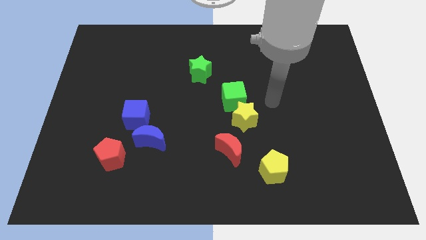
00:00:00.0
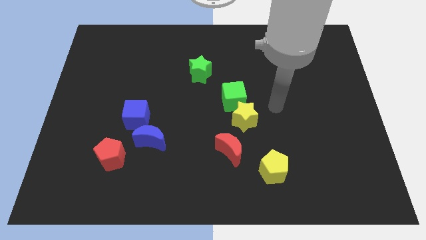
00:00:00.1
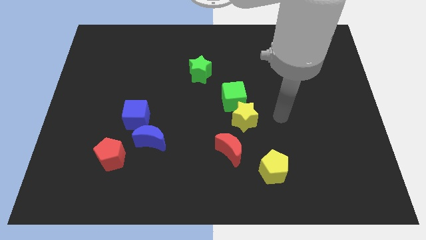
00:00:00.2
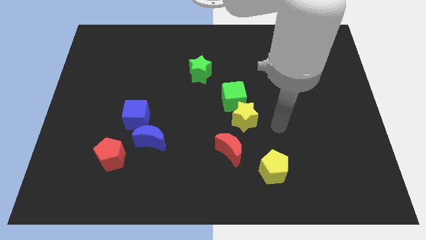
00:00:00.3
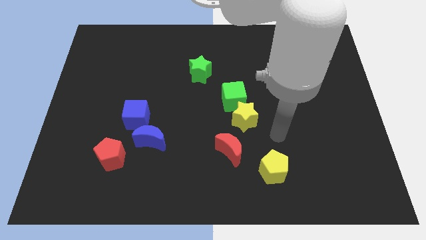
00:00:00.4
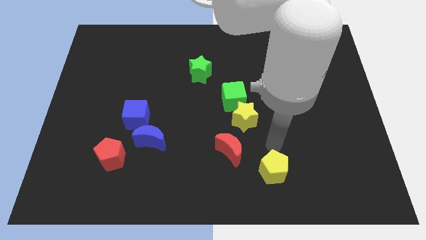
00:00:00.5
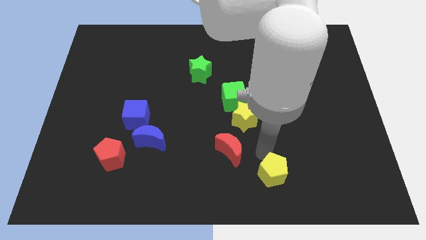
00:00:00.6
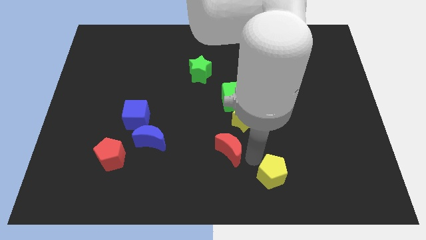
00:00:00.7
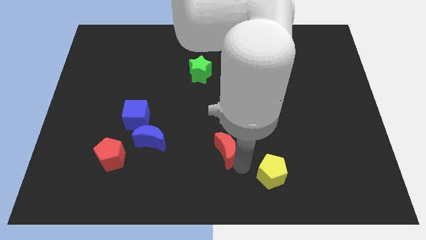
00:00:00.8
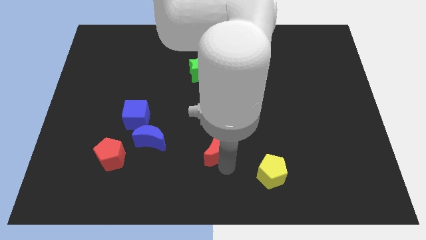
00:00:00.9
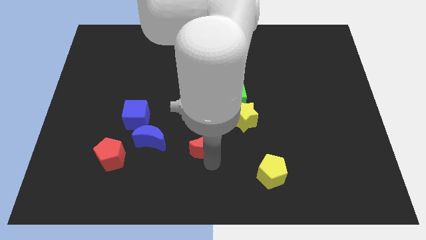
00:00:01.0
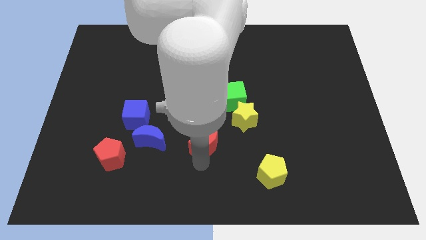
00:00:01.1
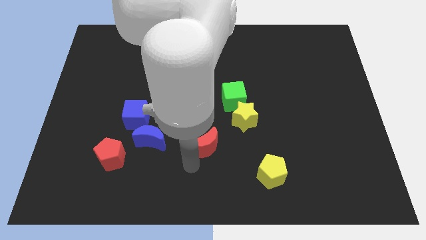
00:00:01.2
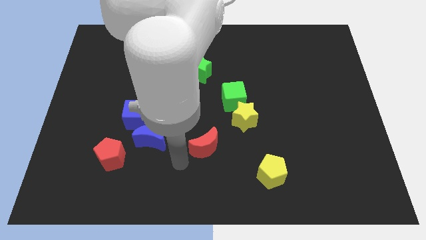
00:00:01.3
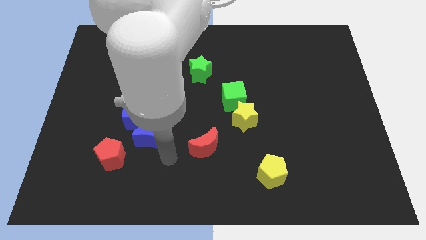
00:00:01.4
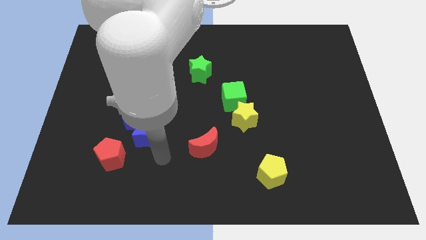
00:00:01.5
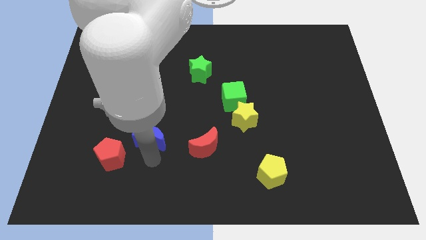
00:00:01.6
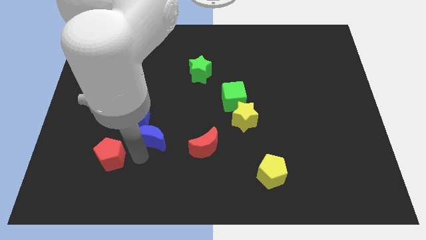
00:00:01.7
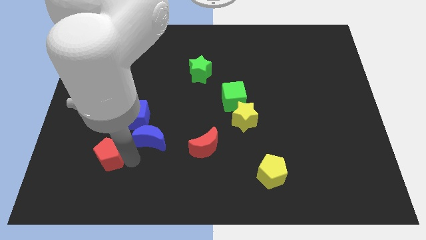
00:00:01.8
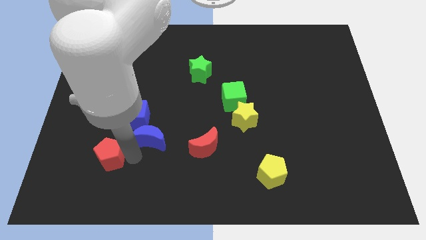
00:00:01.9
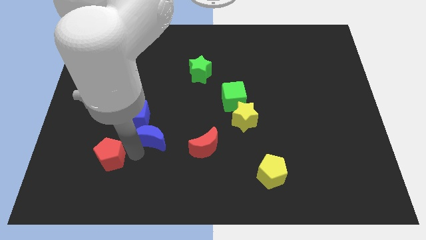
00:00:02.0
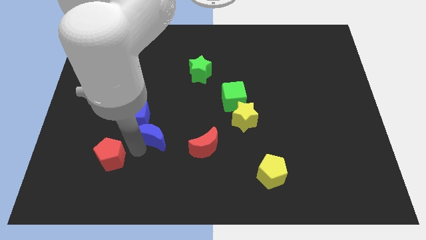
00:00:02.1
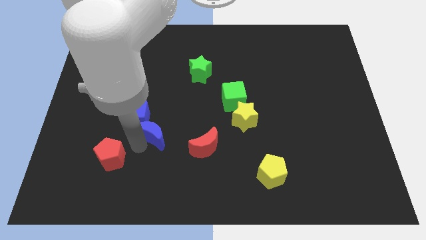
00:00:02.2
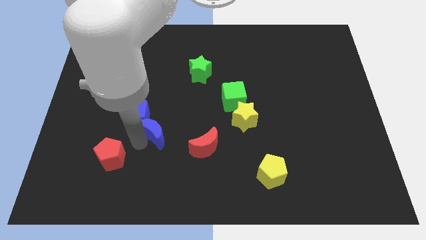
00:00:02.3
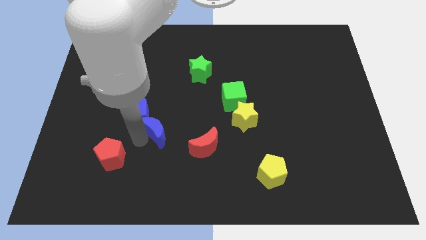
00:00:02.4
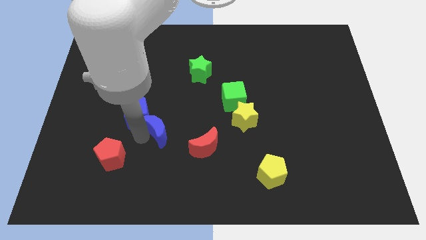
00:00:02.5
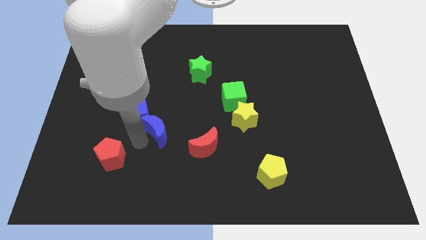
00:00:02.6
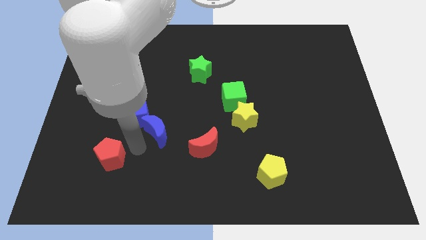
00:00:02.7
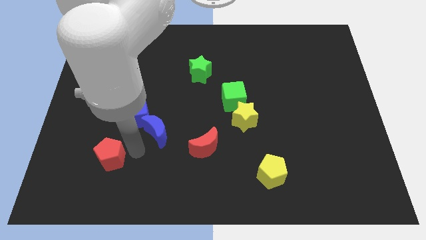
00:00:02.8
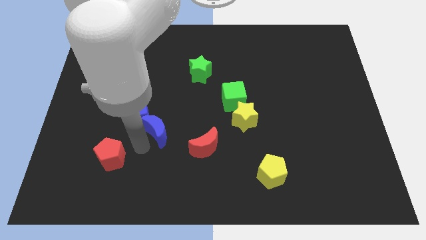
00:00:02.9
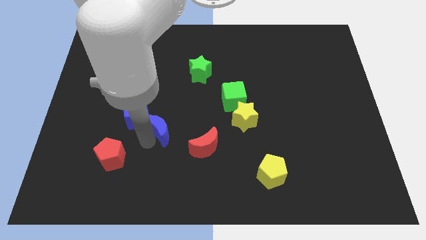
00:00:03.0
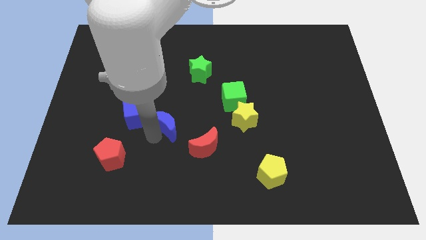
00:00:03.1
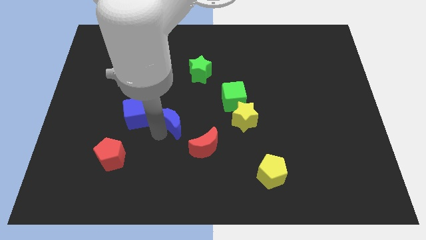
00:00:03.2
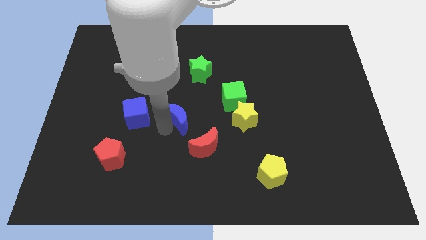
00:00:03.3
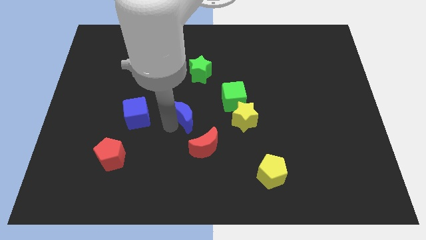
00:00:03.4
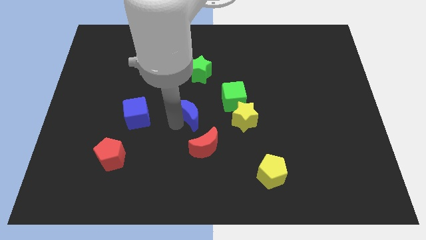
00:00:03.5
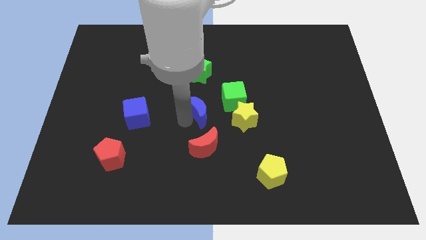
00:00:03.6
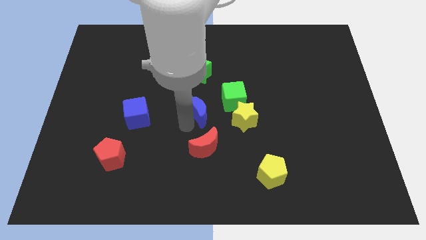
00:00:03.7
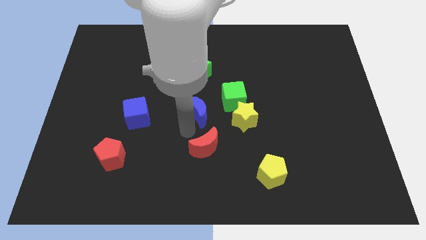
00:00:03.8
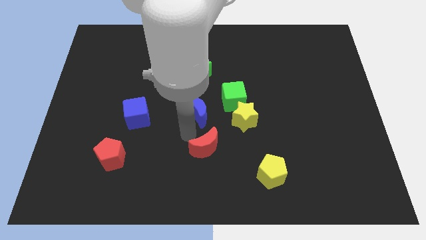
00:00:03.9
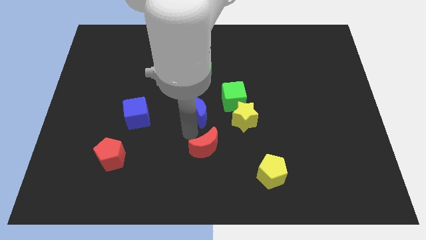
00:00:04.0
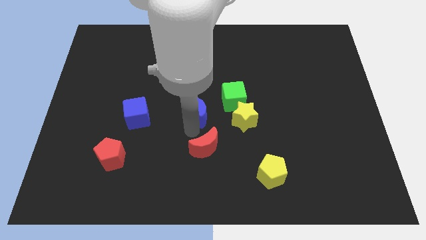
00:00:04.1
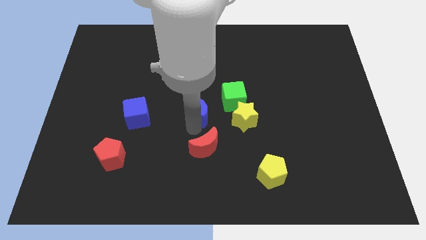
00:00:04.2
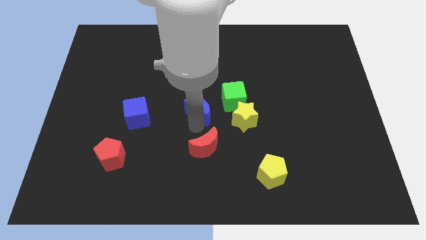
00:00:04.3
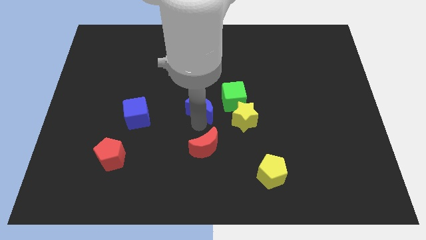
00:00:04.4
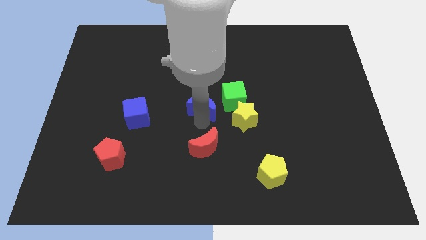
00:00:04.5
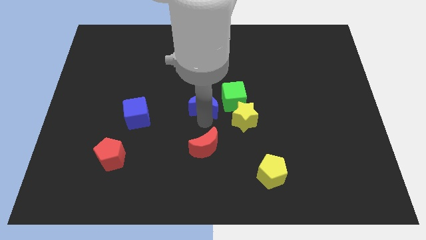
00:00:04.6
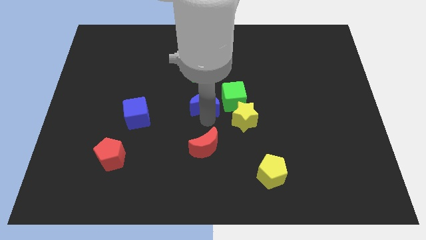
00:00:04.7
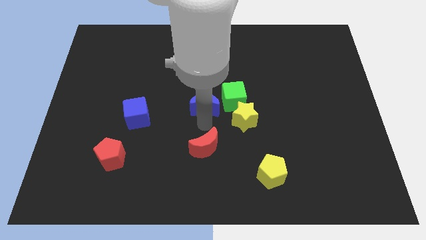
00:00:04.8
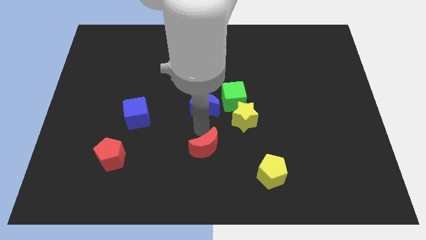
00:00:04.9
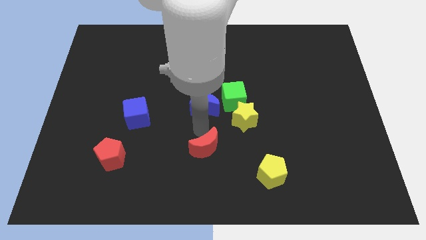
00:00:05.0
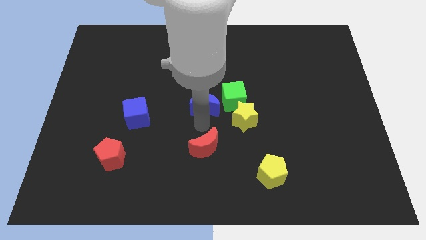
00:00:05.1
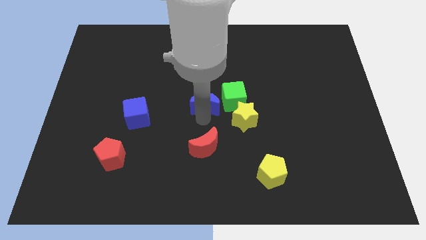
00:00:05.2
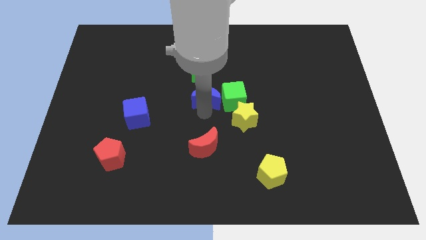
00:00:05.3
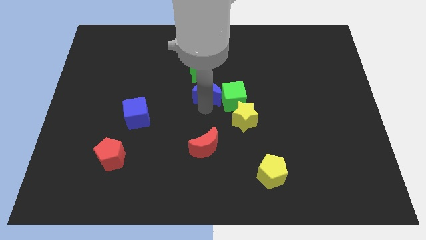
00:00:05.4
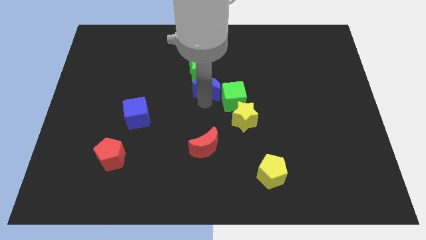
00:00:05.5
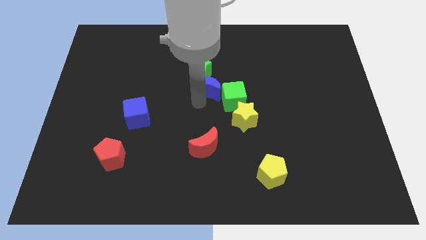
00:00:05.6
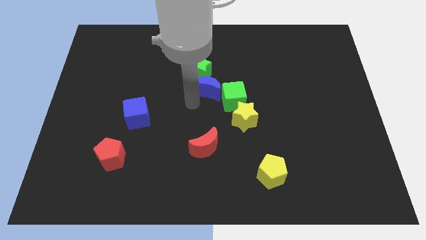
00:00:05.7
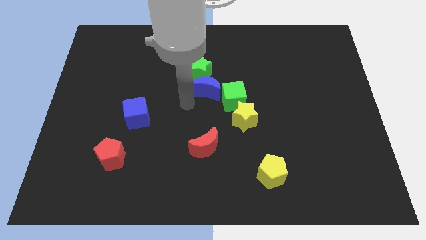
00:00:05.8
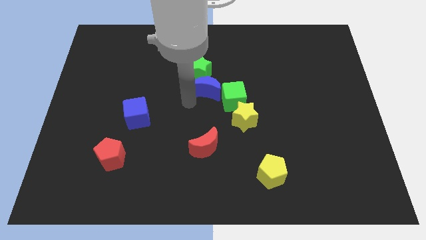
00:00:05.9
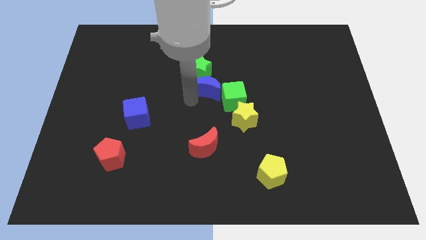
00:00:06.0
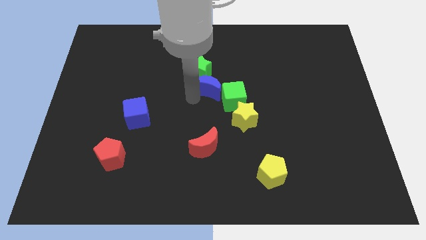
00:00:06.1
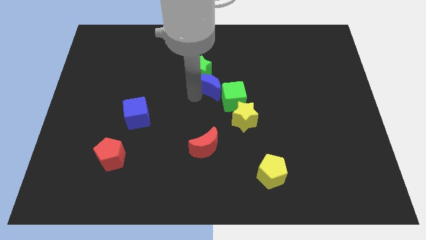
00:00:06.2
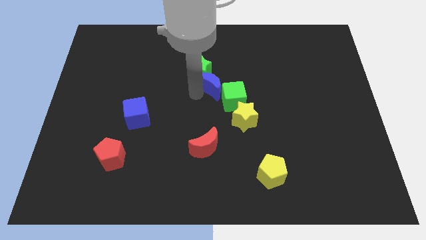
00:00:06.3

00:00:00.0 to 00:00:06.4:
slide the blue moon up and right diagonally

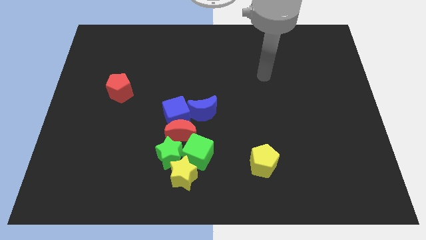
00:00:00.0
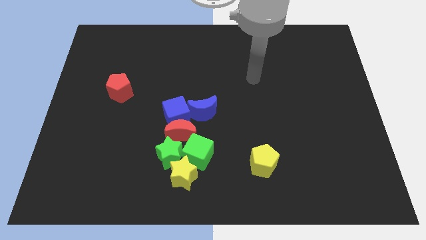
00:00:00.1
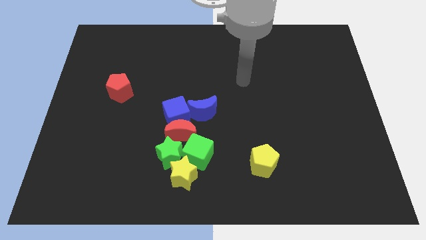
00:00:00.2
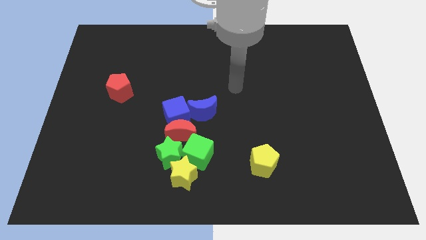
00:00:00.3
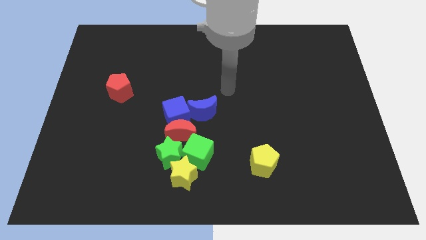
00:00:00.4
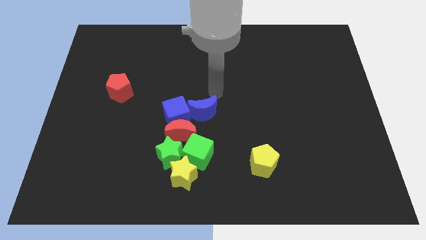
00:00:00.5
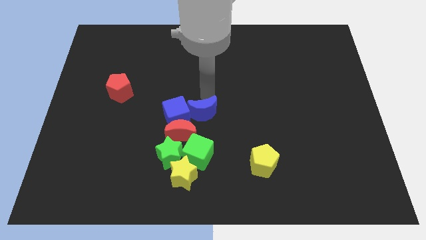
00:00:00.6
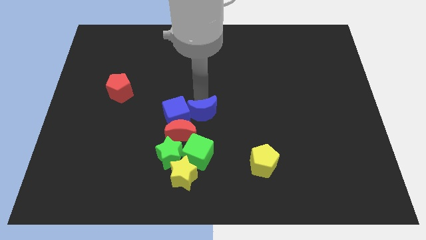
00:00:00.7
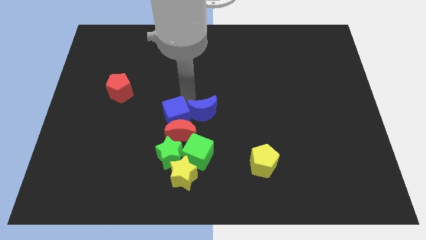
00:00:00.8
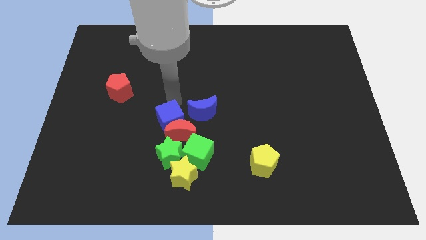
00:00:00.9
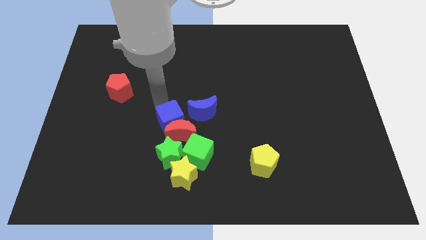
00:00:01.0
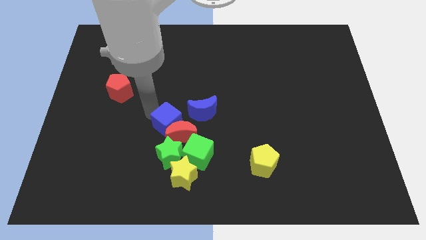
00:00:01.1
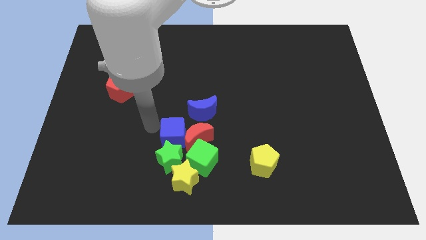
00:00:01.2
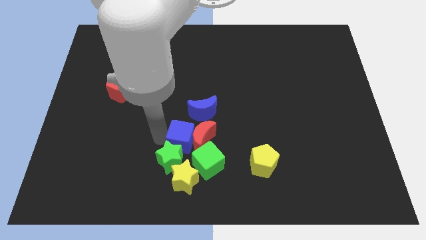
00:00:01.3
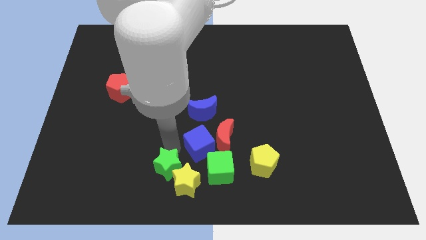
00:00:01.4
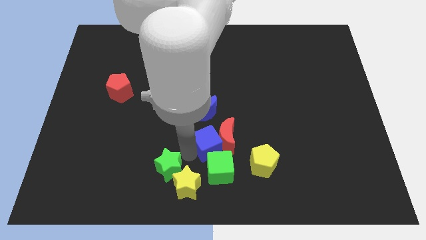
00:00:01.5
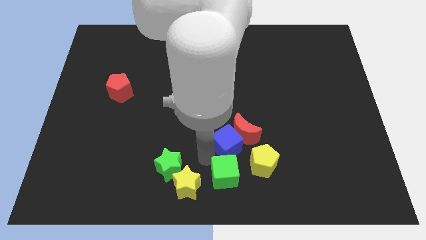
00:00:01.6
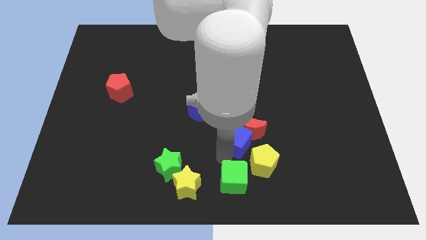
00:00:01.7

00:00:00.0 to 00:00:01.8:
move the red moon a little bit upwards and then to the right

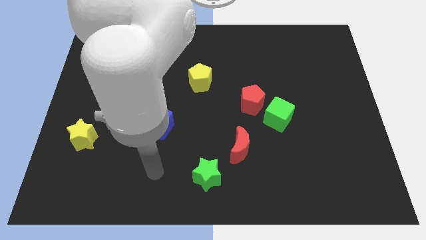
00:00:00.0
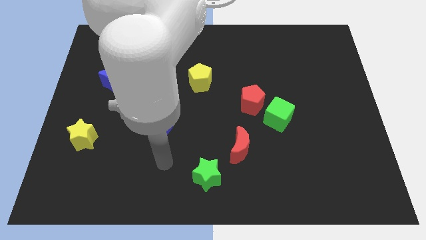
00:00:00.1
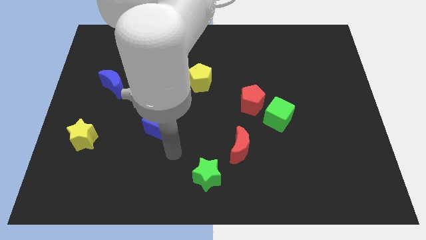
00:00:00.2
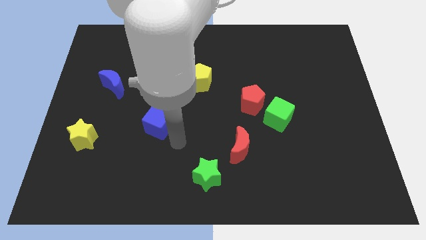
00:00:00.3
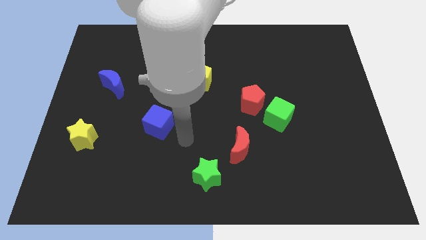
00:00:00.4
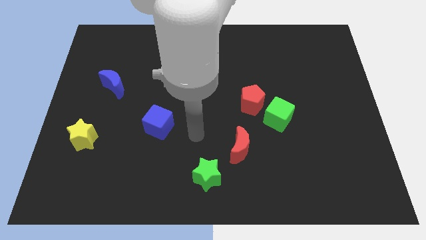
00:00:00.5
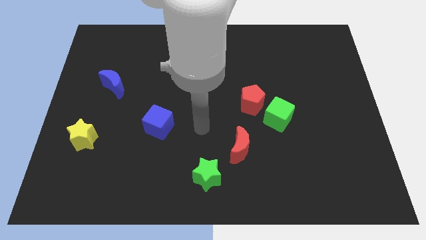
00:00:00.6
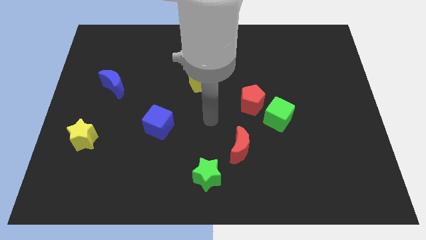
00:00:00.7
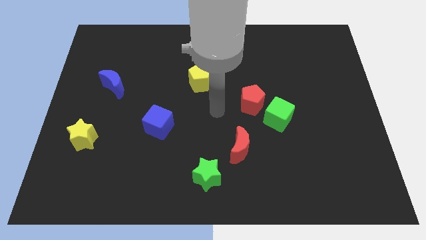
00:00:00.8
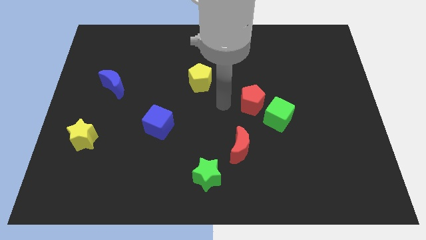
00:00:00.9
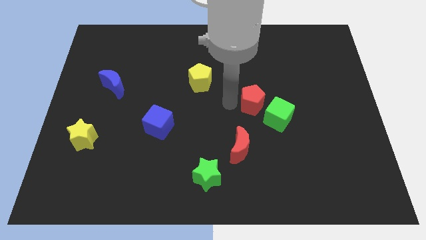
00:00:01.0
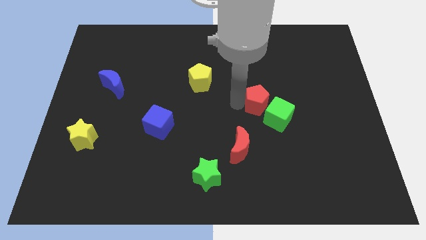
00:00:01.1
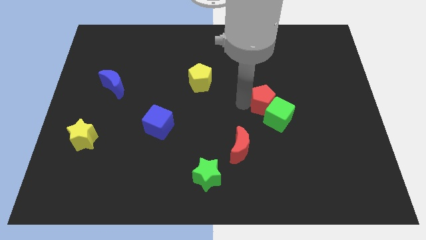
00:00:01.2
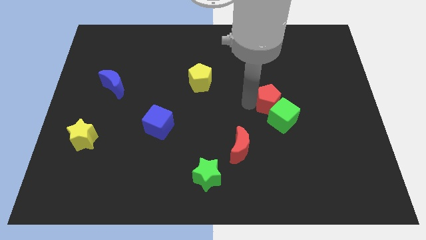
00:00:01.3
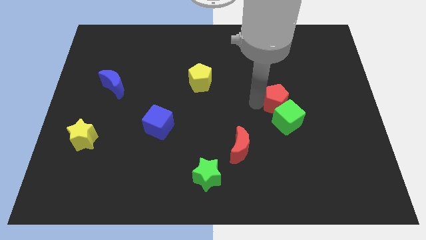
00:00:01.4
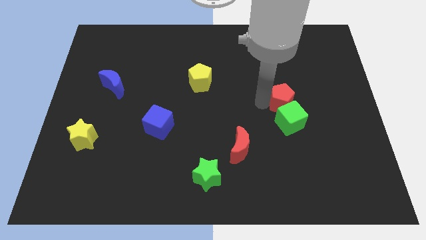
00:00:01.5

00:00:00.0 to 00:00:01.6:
push the red pentagon a little to the right
